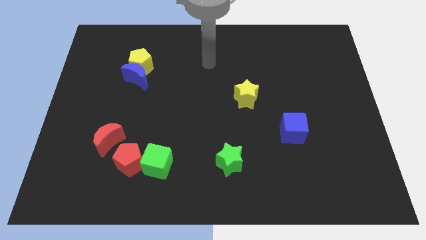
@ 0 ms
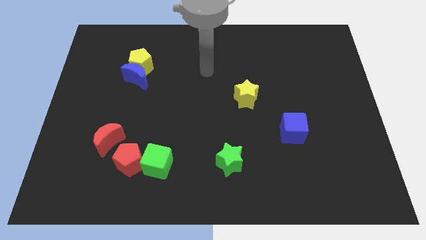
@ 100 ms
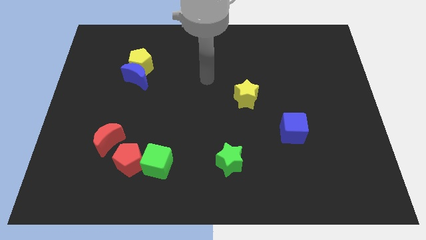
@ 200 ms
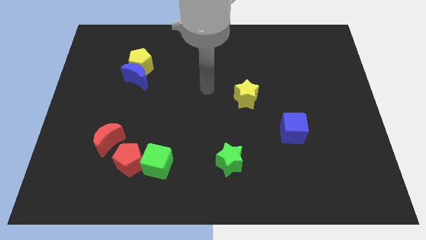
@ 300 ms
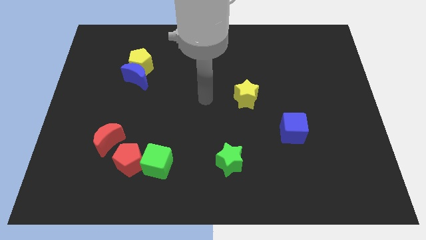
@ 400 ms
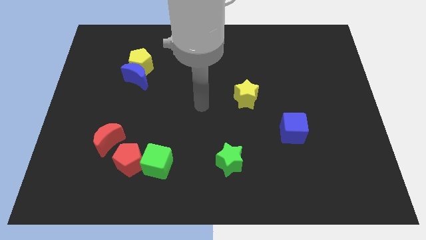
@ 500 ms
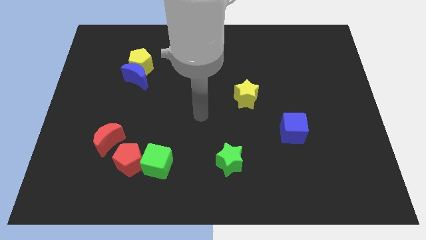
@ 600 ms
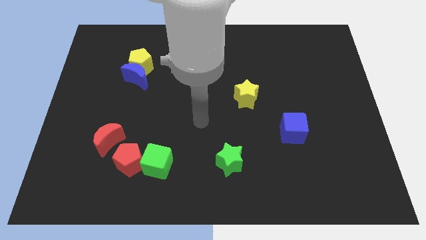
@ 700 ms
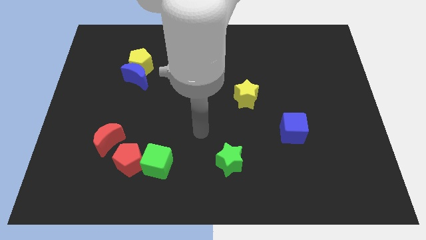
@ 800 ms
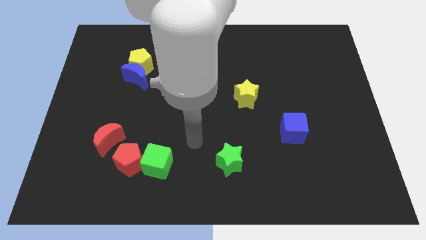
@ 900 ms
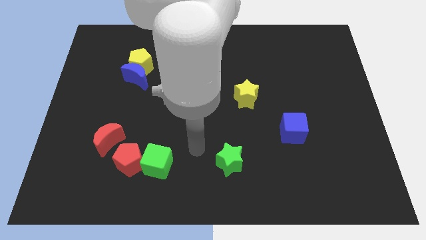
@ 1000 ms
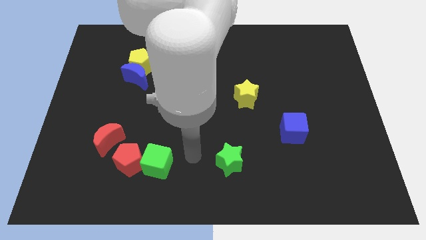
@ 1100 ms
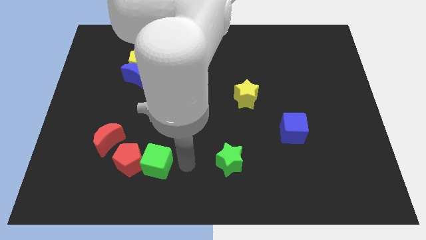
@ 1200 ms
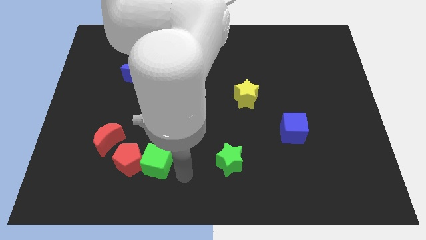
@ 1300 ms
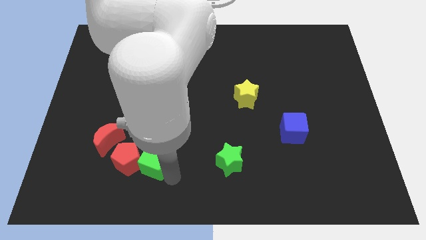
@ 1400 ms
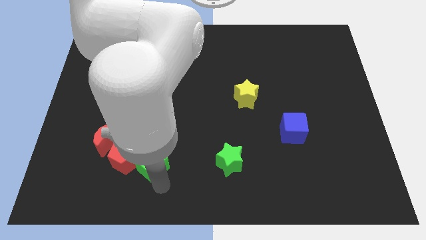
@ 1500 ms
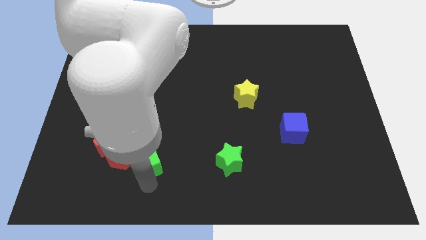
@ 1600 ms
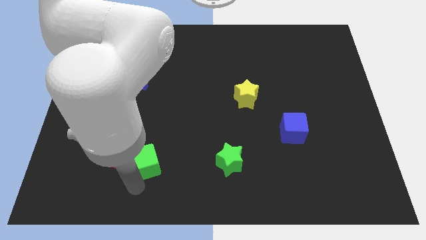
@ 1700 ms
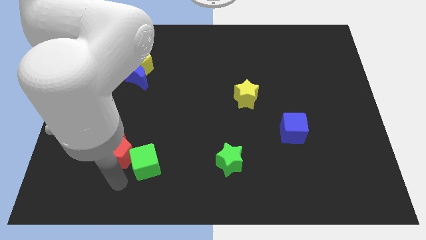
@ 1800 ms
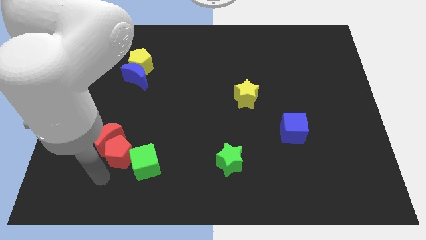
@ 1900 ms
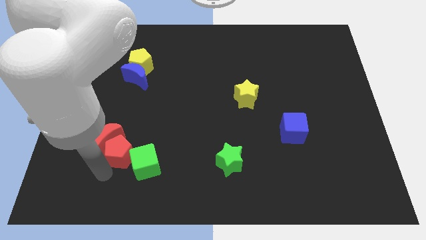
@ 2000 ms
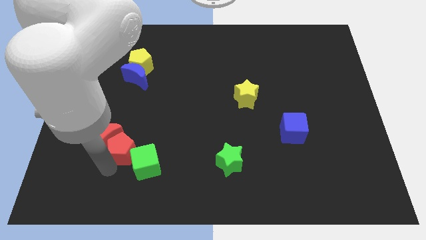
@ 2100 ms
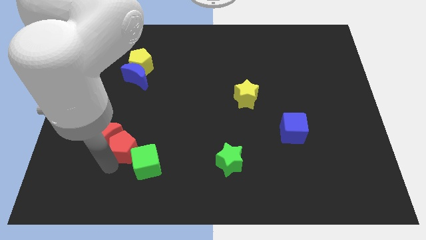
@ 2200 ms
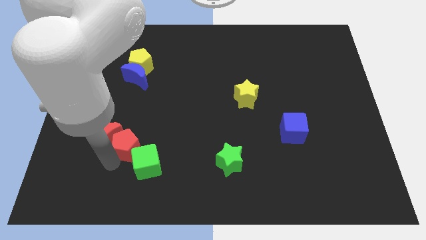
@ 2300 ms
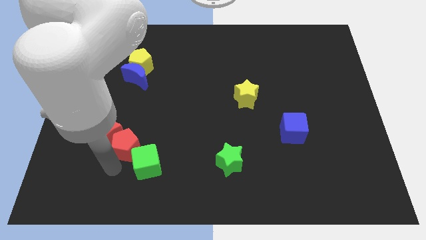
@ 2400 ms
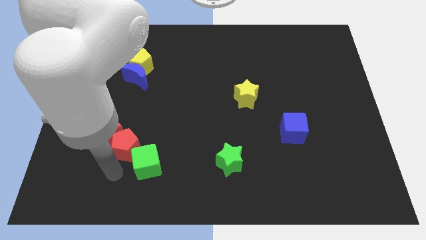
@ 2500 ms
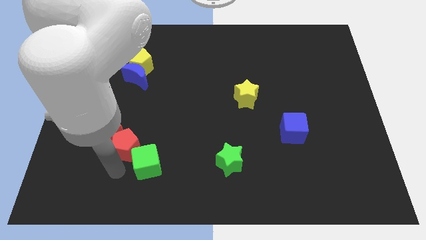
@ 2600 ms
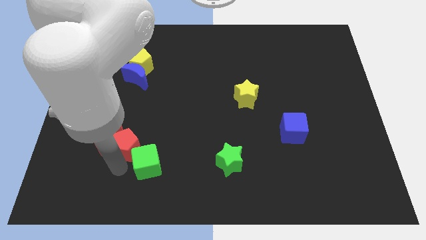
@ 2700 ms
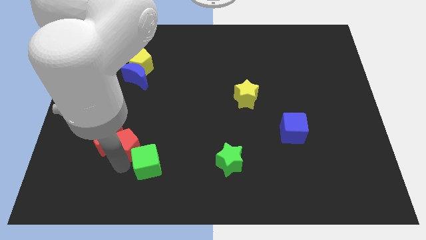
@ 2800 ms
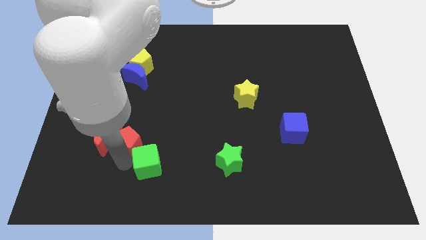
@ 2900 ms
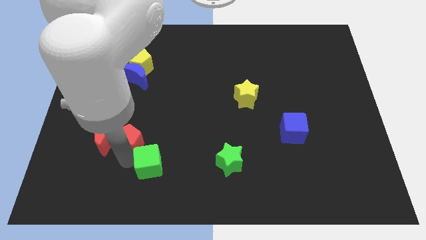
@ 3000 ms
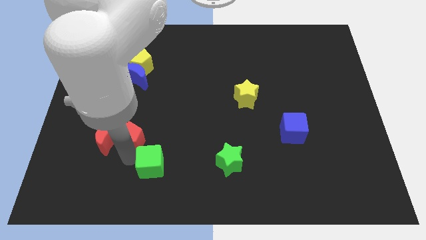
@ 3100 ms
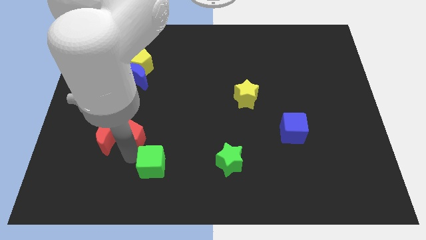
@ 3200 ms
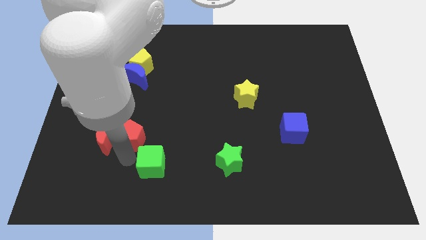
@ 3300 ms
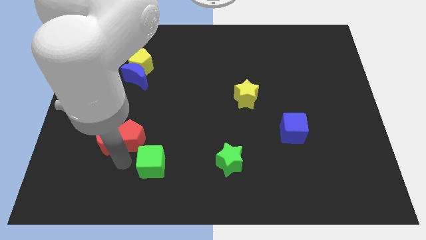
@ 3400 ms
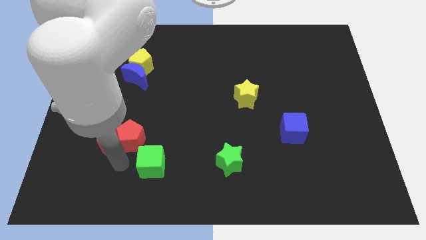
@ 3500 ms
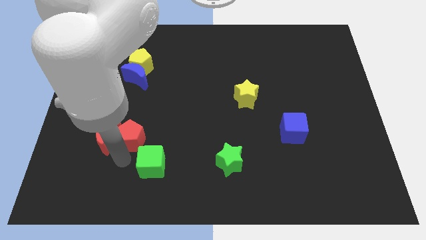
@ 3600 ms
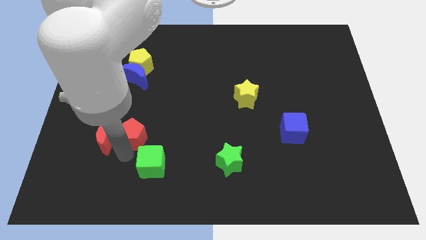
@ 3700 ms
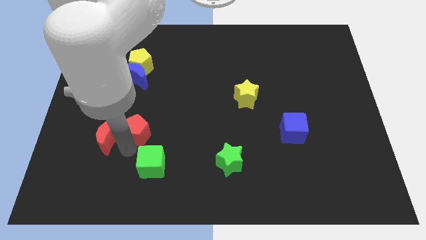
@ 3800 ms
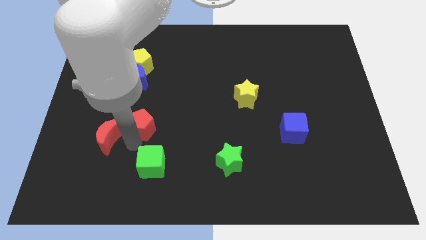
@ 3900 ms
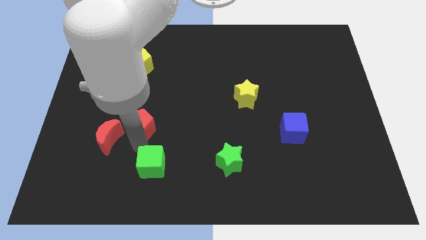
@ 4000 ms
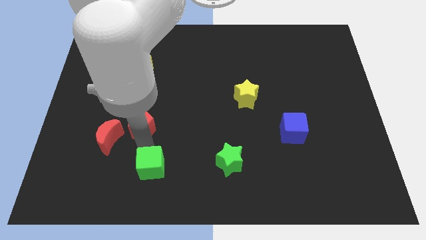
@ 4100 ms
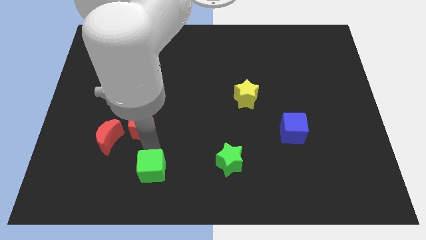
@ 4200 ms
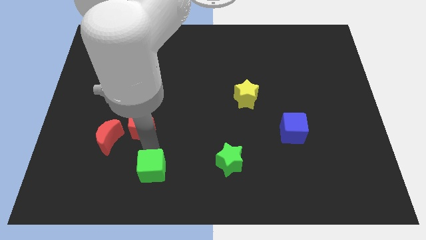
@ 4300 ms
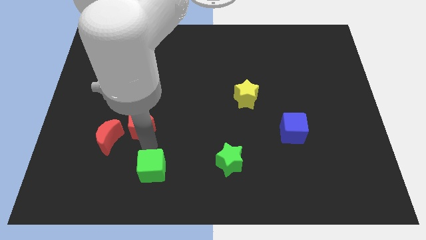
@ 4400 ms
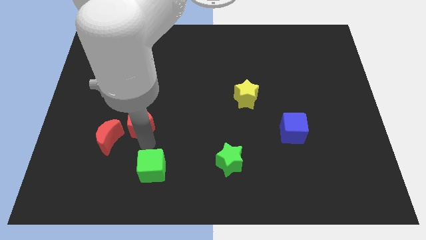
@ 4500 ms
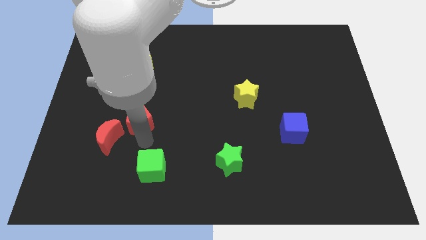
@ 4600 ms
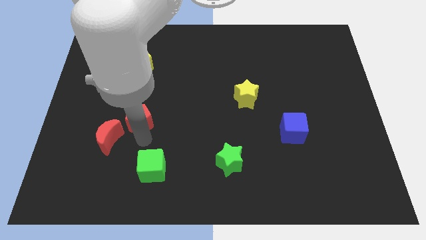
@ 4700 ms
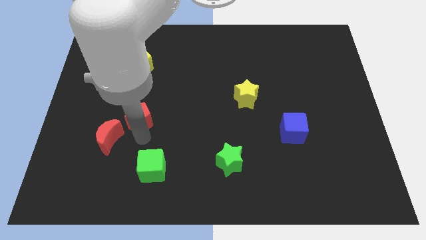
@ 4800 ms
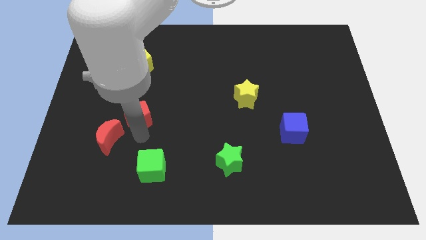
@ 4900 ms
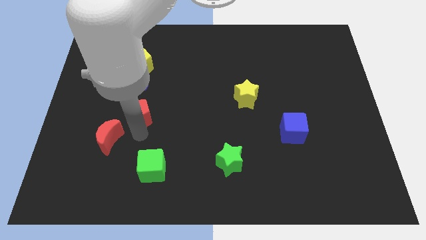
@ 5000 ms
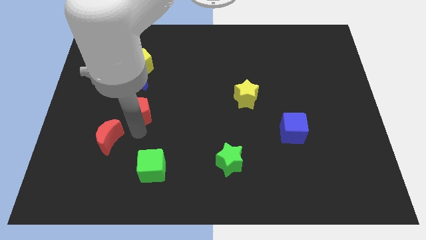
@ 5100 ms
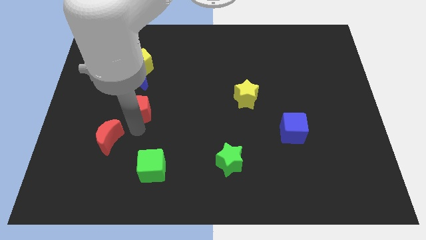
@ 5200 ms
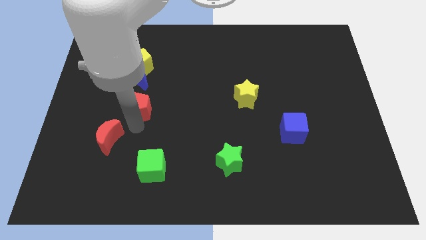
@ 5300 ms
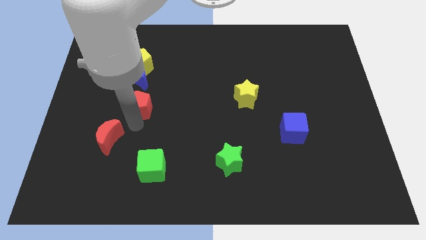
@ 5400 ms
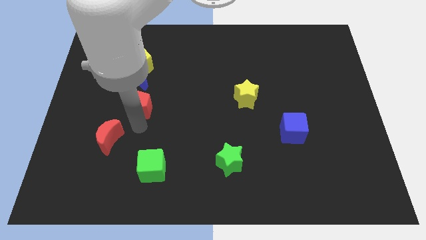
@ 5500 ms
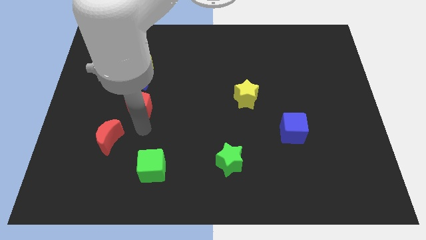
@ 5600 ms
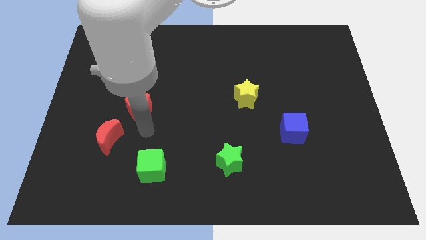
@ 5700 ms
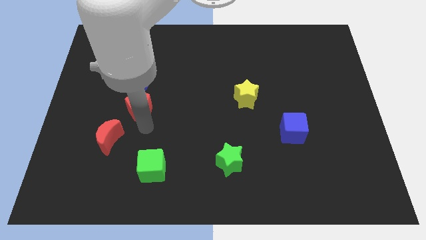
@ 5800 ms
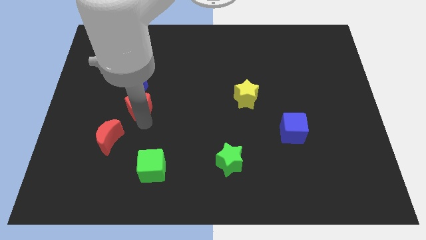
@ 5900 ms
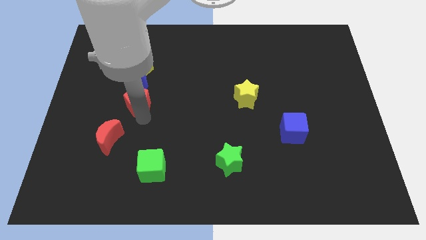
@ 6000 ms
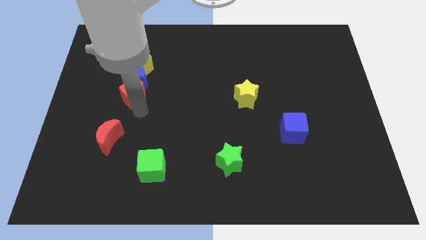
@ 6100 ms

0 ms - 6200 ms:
move the red pentagon towards the blue moon
